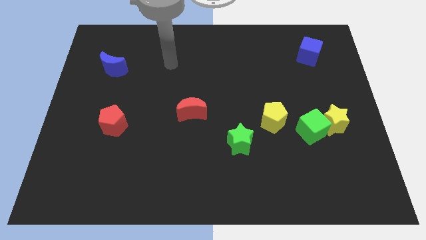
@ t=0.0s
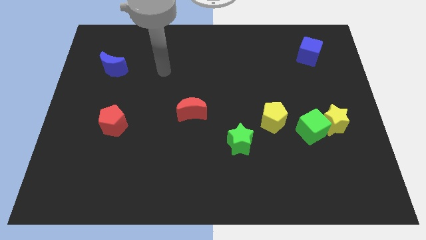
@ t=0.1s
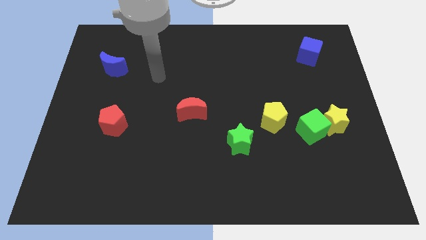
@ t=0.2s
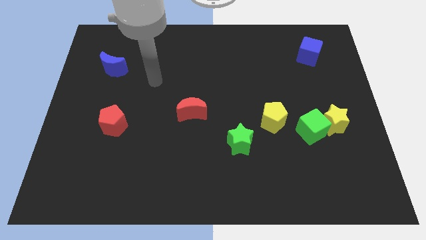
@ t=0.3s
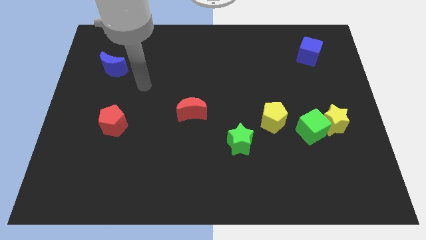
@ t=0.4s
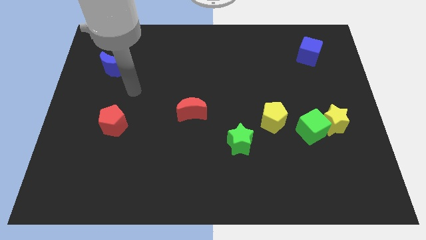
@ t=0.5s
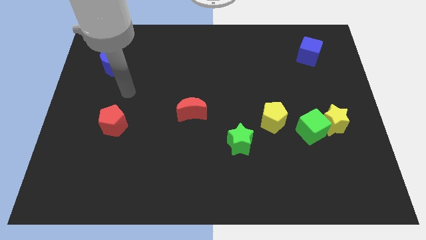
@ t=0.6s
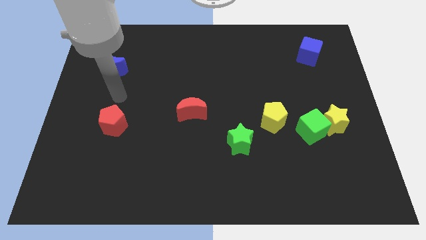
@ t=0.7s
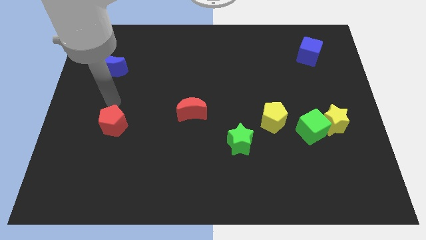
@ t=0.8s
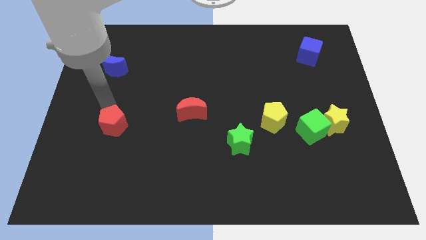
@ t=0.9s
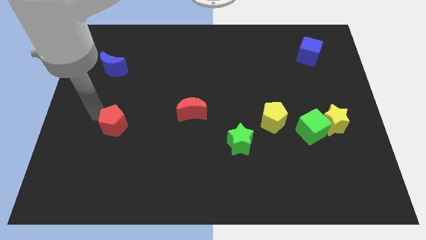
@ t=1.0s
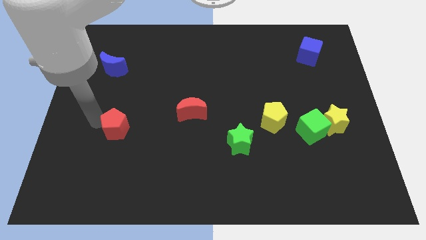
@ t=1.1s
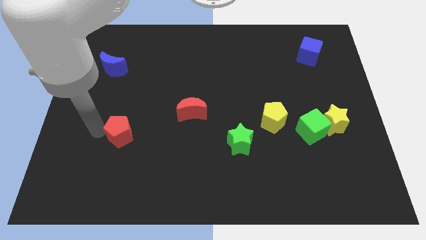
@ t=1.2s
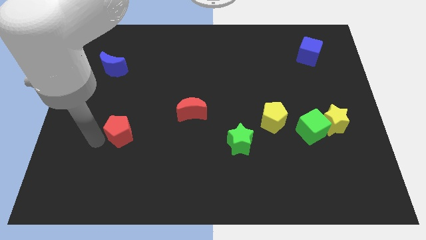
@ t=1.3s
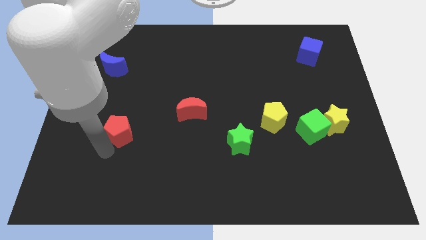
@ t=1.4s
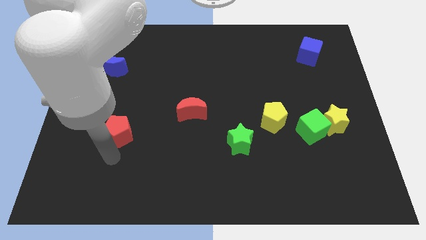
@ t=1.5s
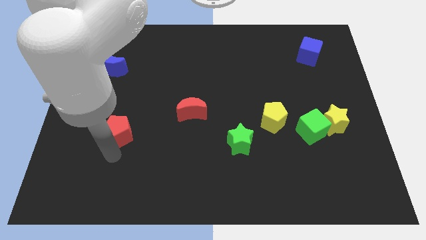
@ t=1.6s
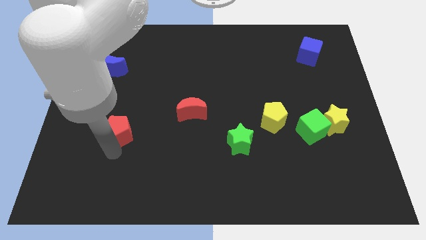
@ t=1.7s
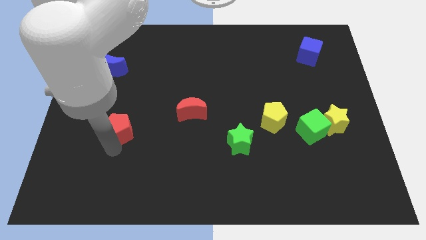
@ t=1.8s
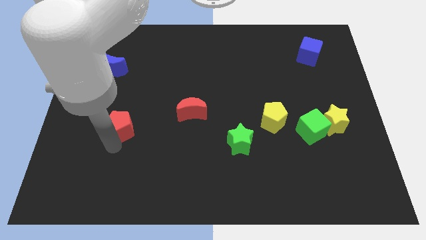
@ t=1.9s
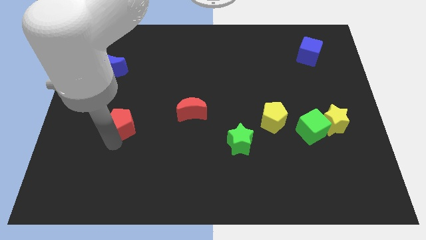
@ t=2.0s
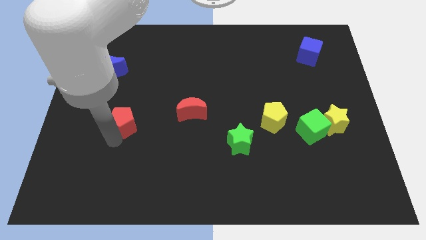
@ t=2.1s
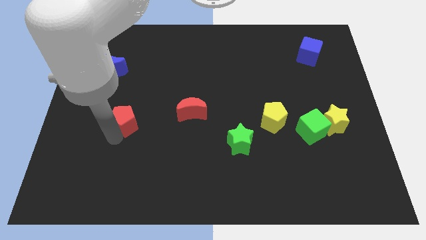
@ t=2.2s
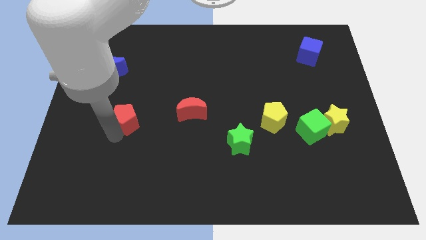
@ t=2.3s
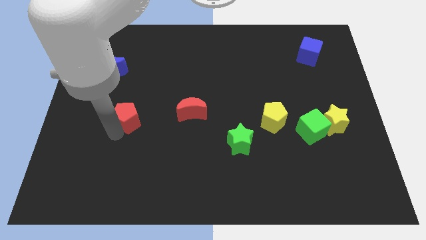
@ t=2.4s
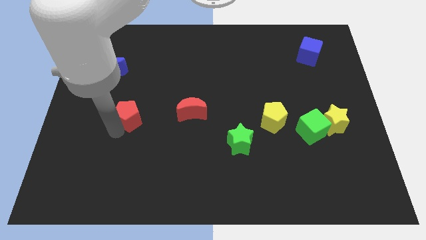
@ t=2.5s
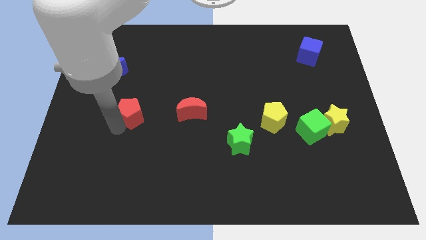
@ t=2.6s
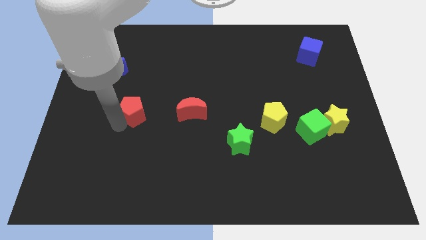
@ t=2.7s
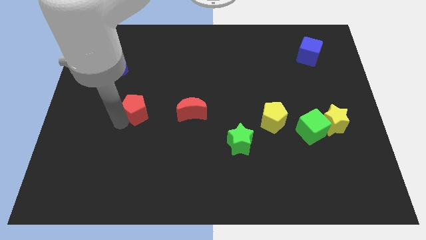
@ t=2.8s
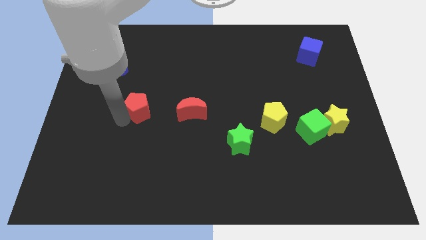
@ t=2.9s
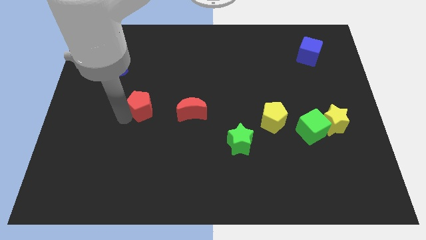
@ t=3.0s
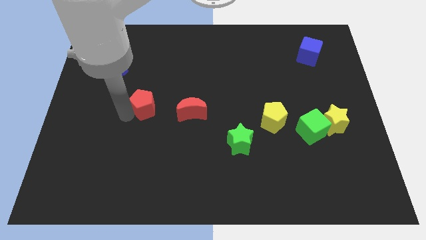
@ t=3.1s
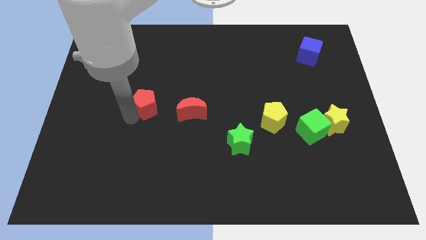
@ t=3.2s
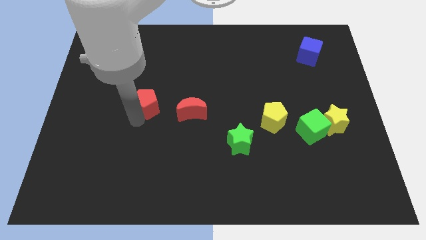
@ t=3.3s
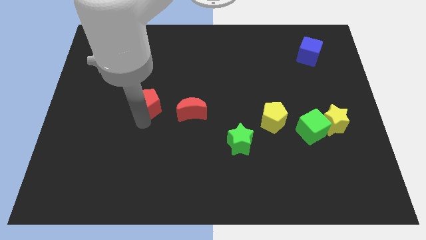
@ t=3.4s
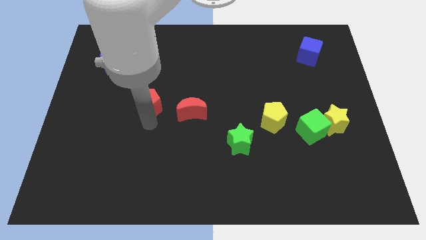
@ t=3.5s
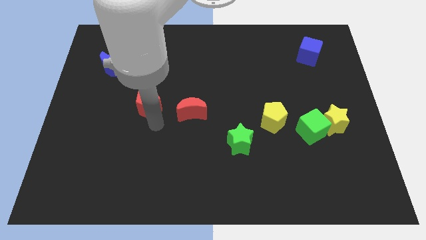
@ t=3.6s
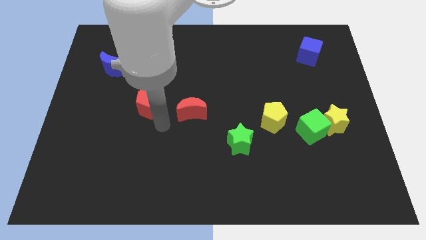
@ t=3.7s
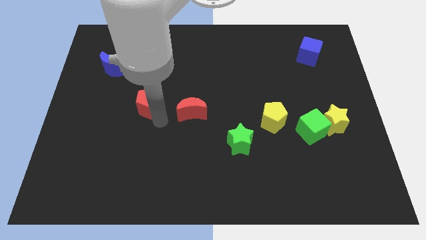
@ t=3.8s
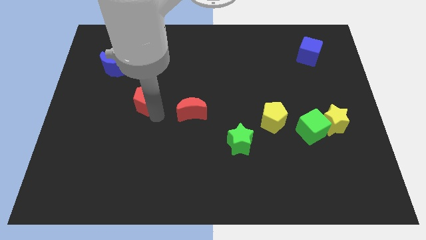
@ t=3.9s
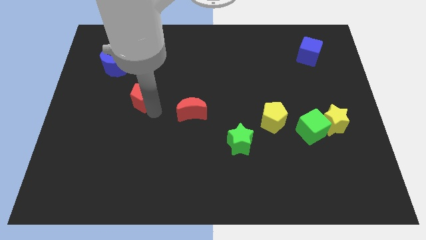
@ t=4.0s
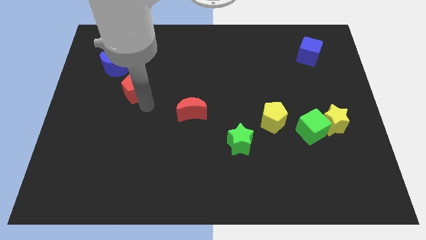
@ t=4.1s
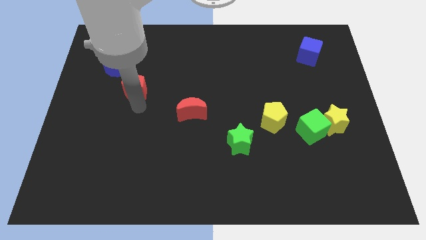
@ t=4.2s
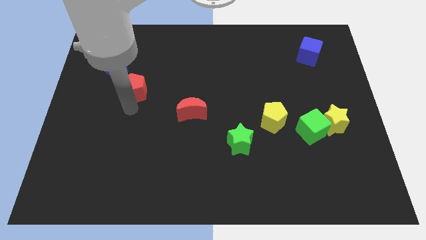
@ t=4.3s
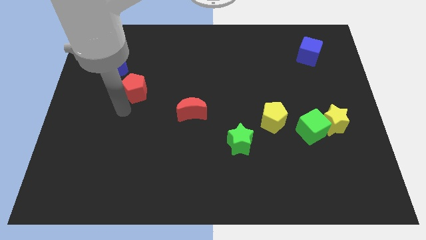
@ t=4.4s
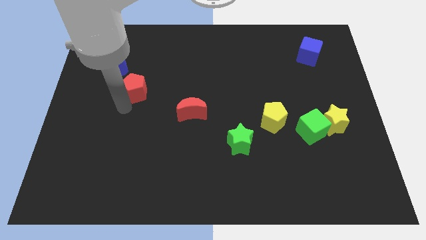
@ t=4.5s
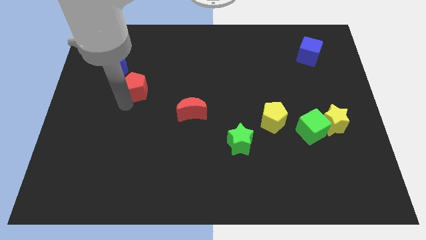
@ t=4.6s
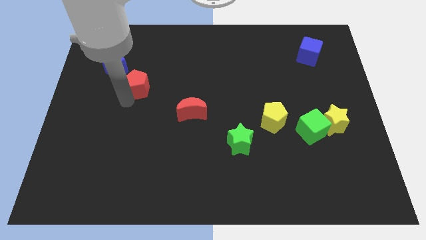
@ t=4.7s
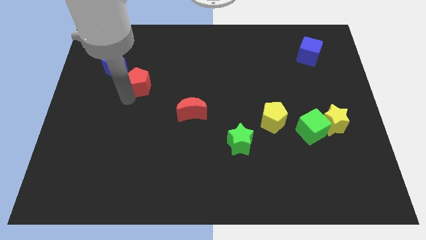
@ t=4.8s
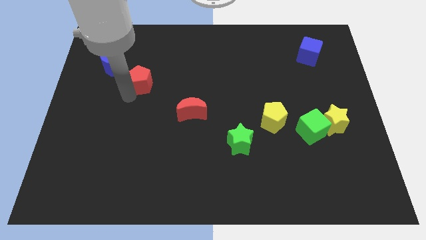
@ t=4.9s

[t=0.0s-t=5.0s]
push the red pentagon right of the blue moon

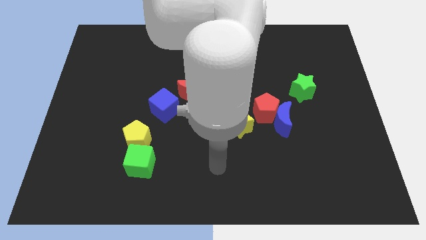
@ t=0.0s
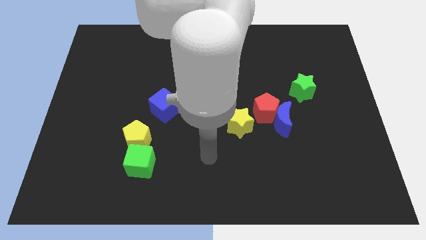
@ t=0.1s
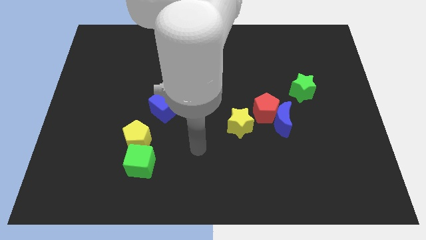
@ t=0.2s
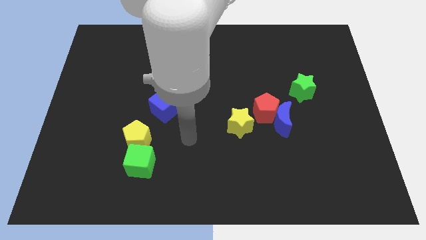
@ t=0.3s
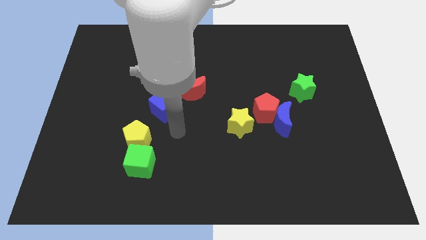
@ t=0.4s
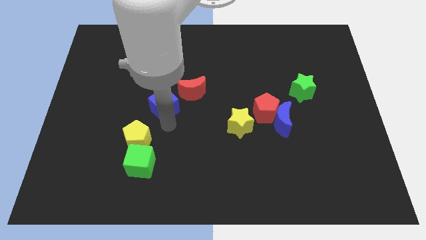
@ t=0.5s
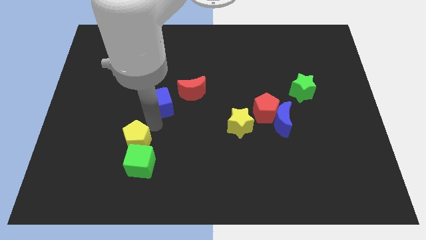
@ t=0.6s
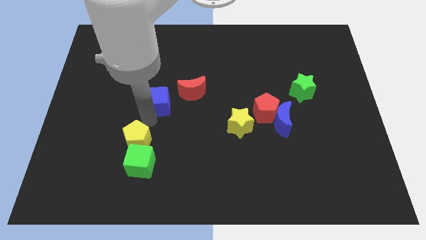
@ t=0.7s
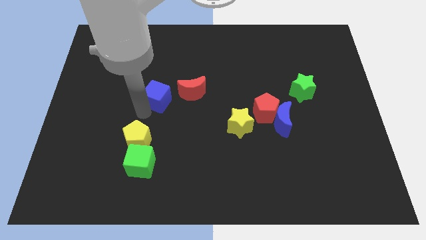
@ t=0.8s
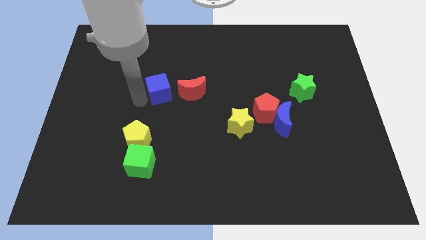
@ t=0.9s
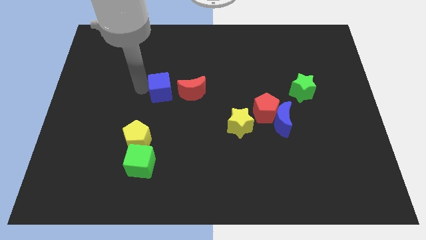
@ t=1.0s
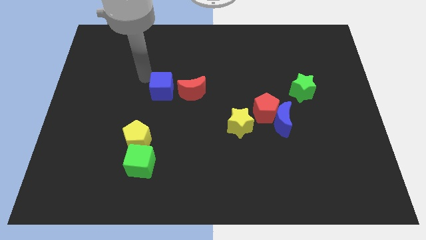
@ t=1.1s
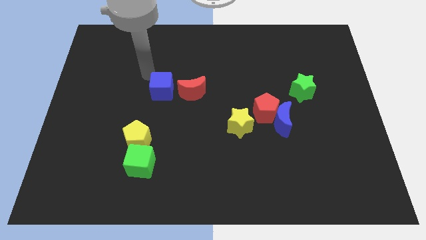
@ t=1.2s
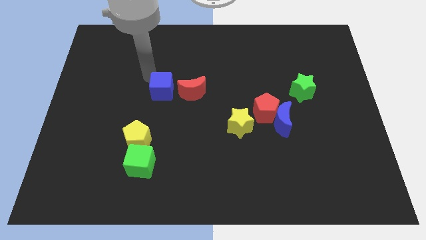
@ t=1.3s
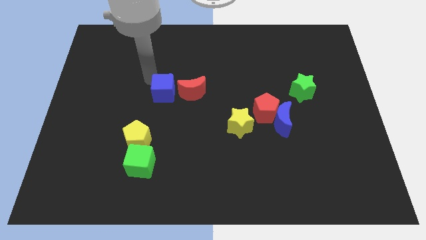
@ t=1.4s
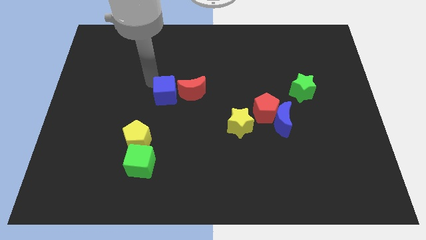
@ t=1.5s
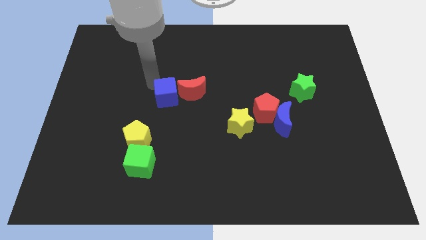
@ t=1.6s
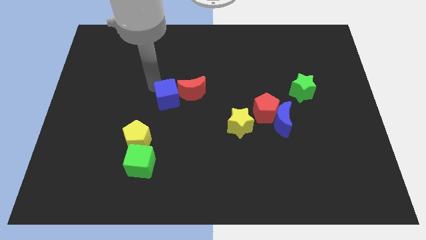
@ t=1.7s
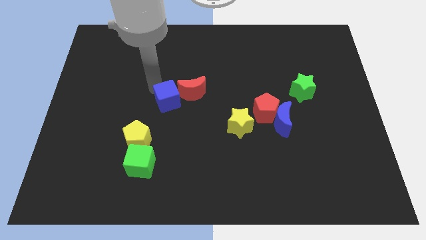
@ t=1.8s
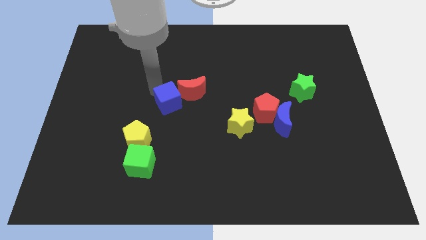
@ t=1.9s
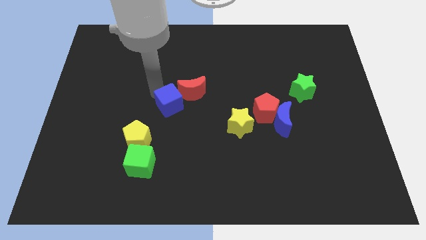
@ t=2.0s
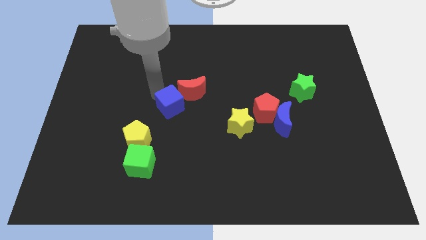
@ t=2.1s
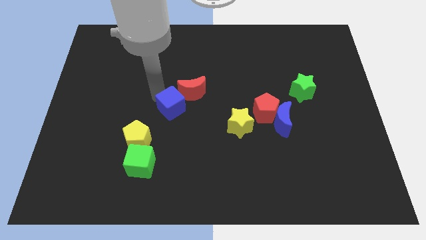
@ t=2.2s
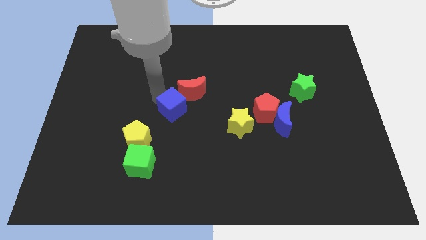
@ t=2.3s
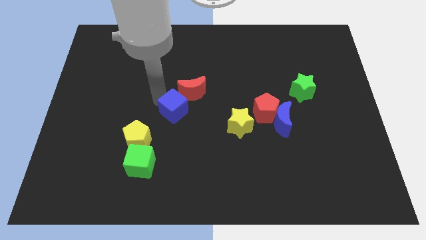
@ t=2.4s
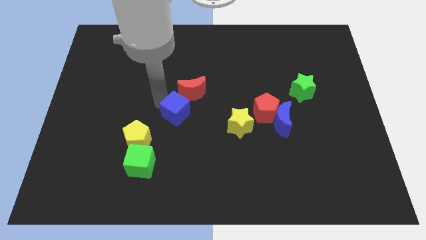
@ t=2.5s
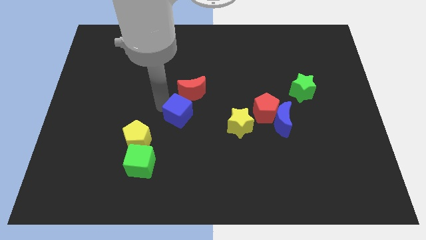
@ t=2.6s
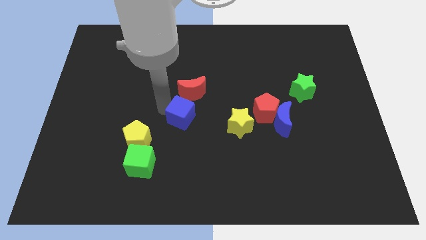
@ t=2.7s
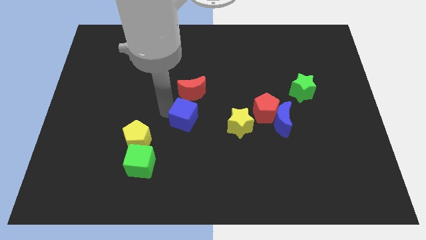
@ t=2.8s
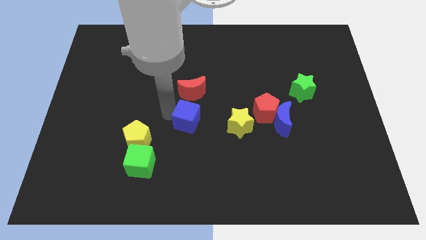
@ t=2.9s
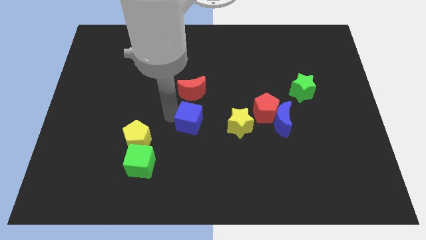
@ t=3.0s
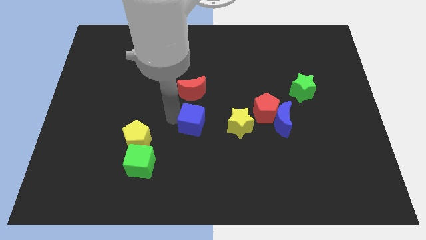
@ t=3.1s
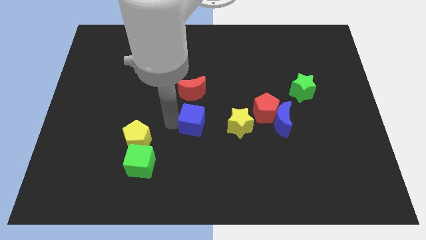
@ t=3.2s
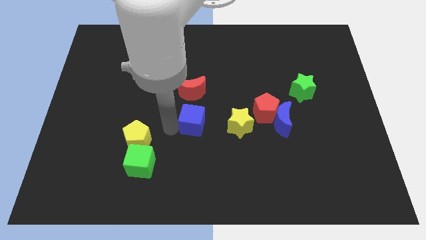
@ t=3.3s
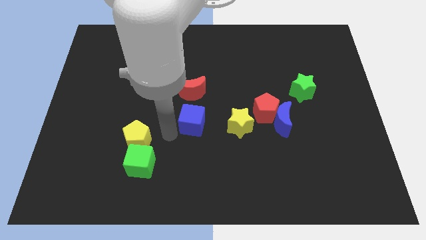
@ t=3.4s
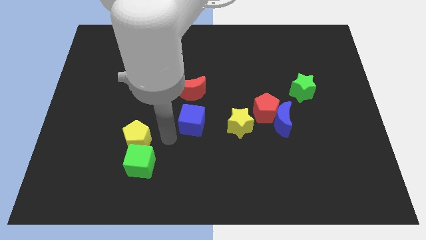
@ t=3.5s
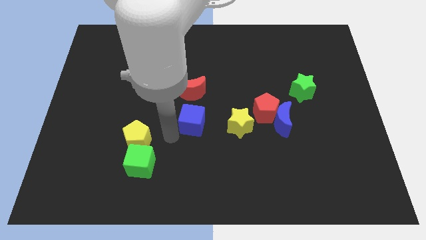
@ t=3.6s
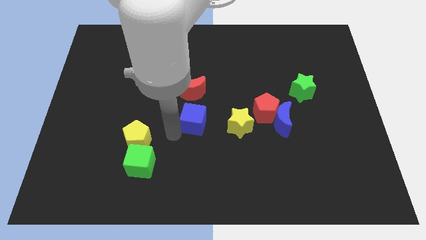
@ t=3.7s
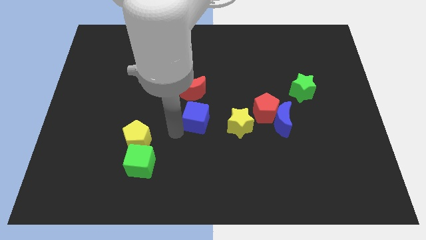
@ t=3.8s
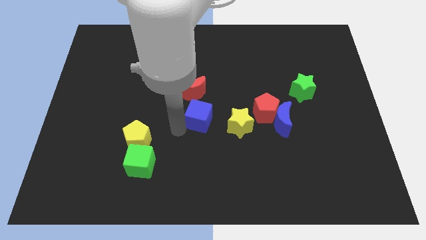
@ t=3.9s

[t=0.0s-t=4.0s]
push the blue cube diagonally up and to the left of the yellow star
